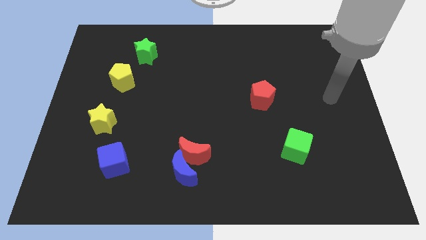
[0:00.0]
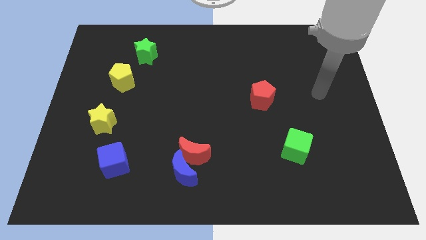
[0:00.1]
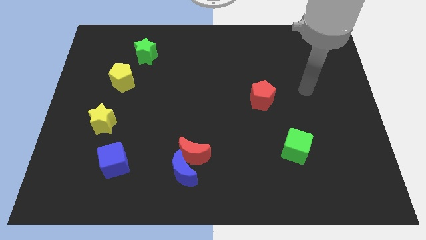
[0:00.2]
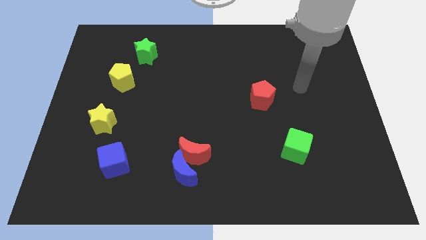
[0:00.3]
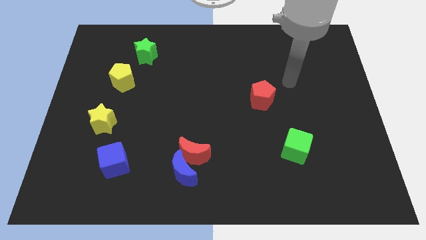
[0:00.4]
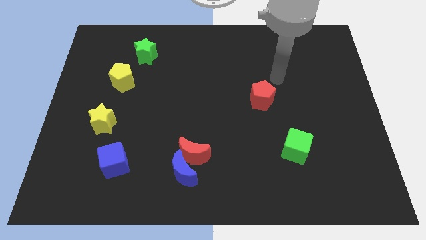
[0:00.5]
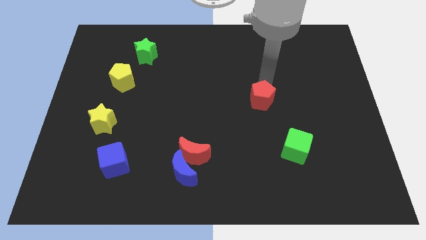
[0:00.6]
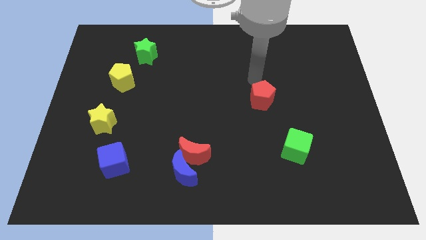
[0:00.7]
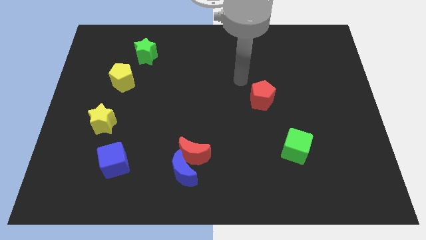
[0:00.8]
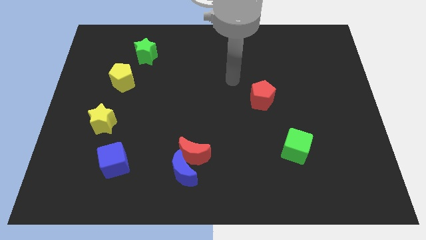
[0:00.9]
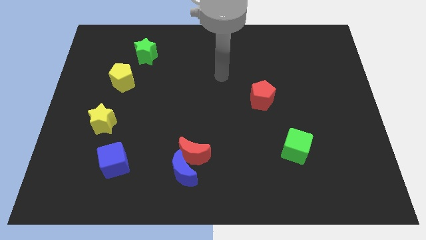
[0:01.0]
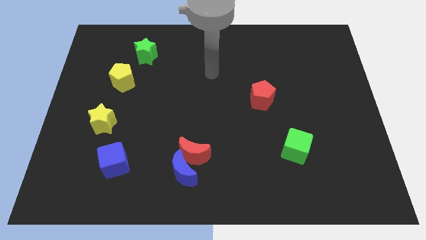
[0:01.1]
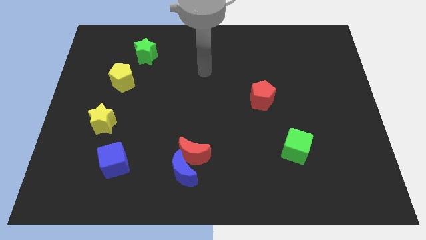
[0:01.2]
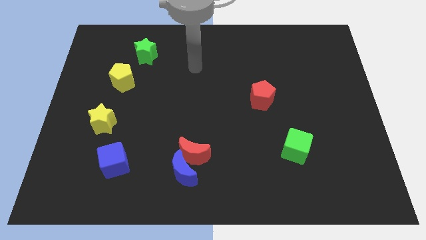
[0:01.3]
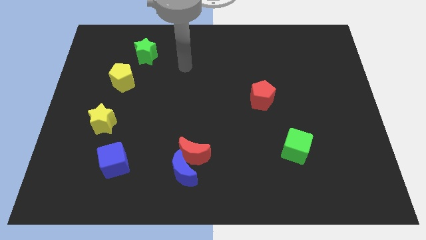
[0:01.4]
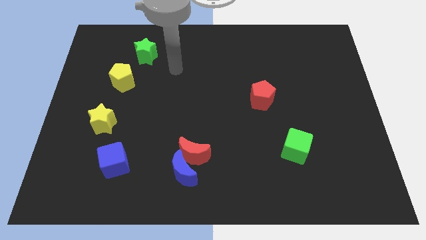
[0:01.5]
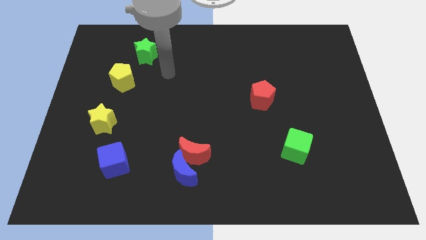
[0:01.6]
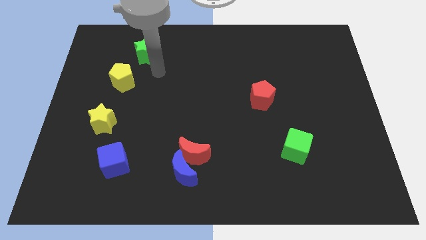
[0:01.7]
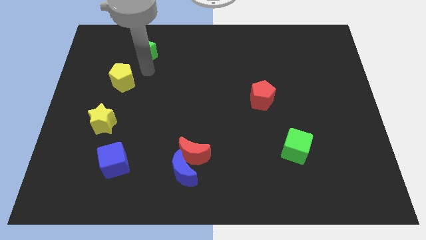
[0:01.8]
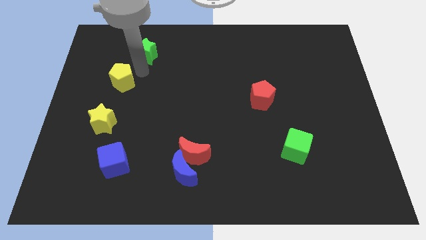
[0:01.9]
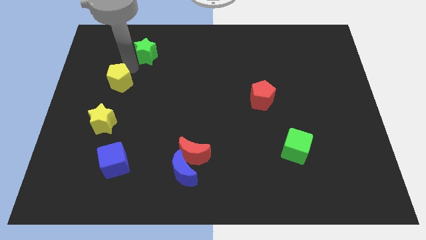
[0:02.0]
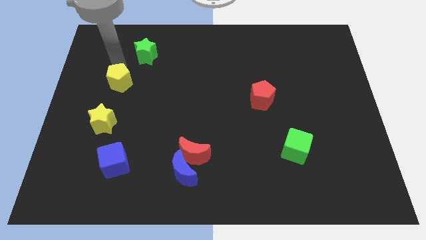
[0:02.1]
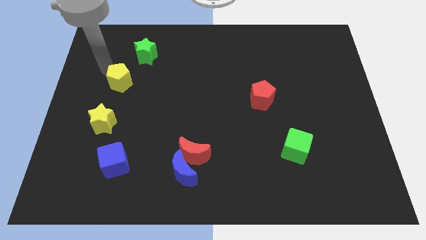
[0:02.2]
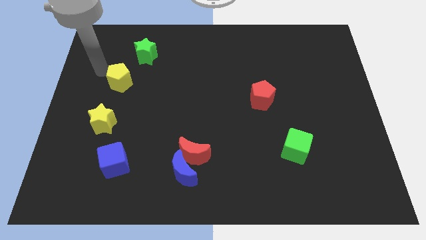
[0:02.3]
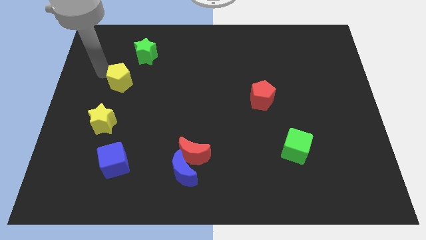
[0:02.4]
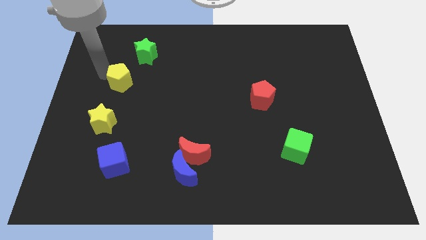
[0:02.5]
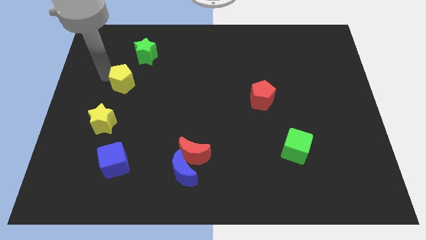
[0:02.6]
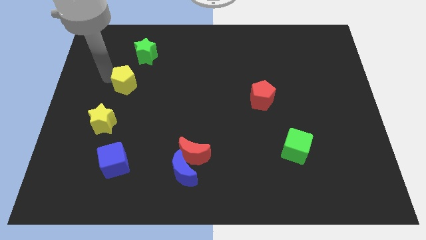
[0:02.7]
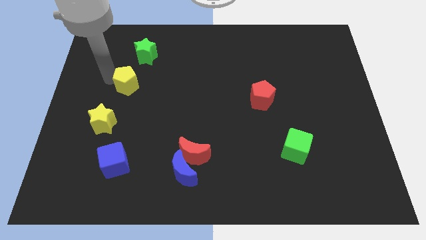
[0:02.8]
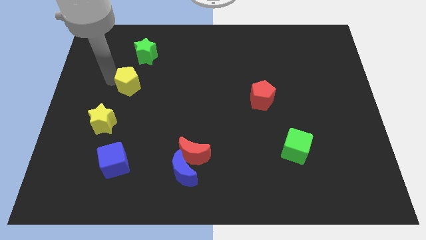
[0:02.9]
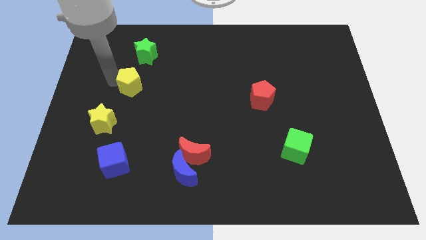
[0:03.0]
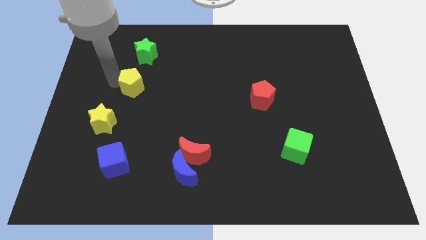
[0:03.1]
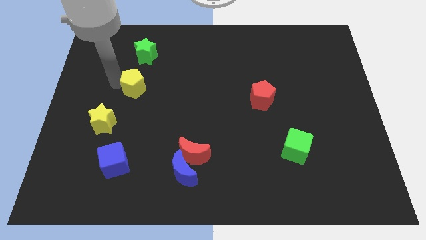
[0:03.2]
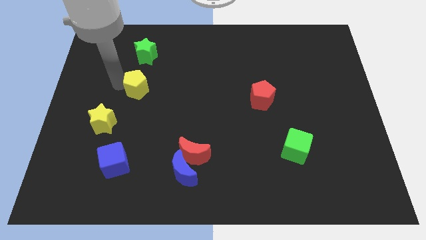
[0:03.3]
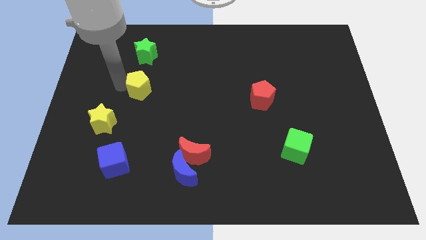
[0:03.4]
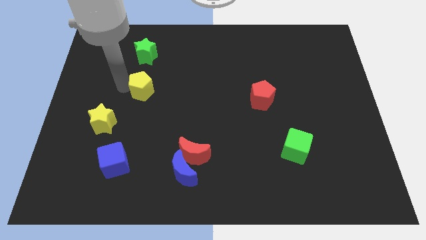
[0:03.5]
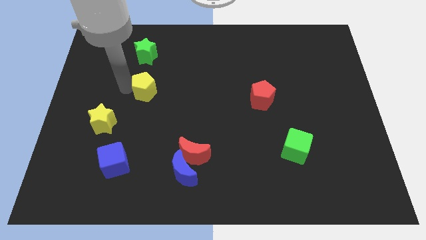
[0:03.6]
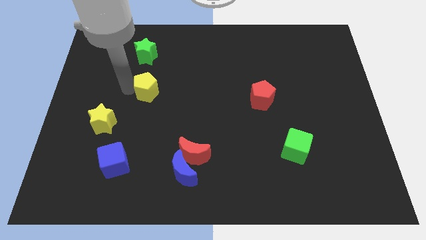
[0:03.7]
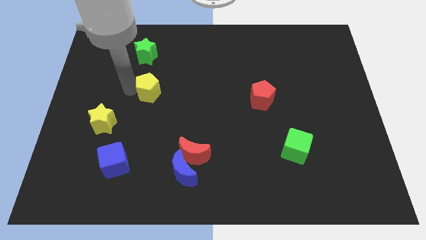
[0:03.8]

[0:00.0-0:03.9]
move the yellow pentagon downwards and to the right a little bit

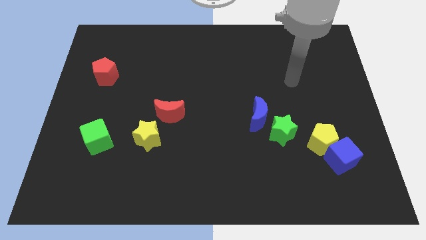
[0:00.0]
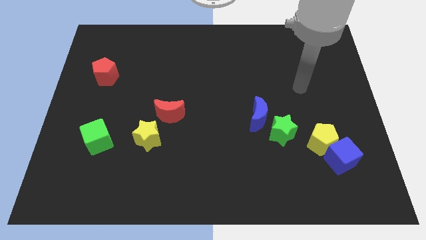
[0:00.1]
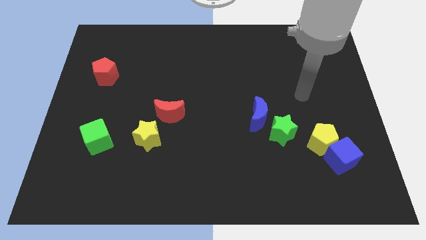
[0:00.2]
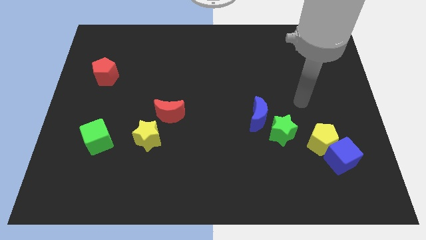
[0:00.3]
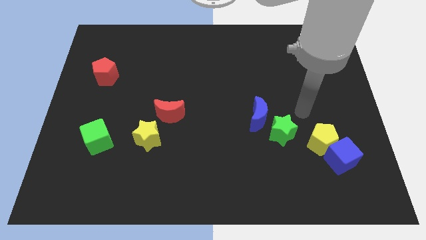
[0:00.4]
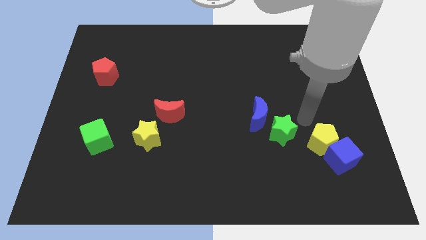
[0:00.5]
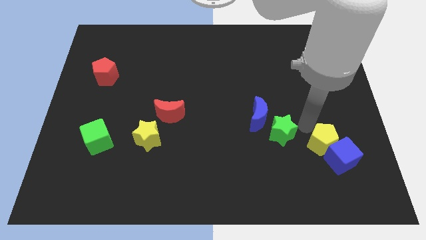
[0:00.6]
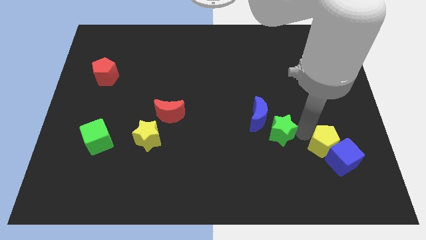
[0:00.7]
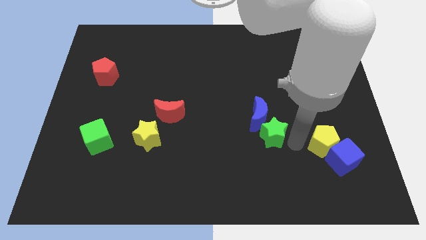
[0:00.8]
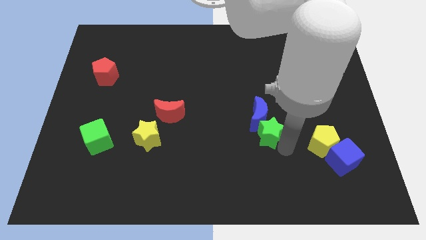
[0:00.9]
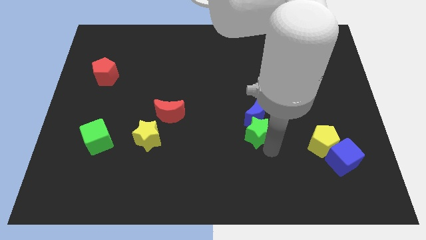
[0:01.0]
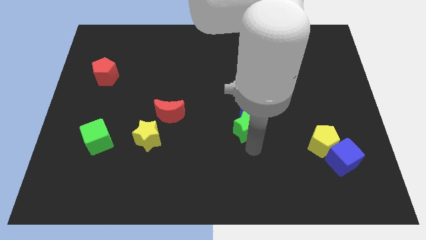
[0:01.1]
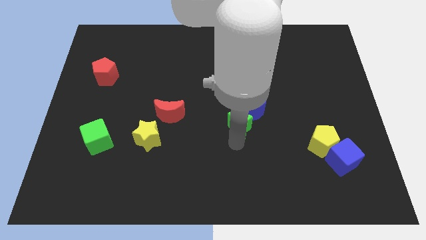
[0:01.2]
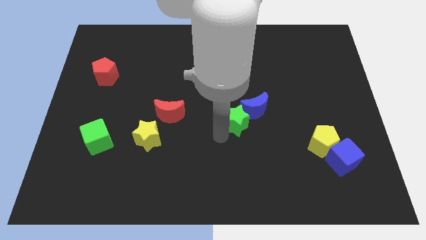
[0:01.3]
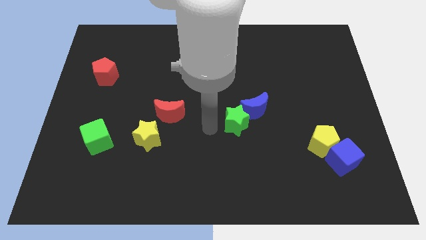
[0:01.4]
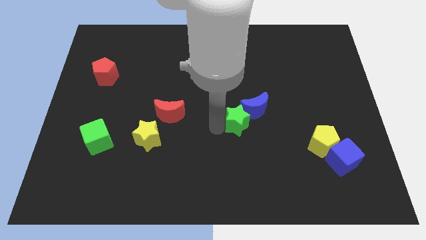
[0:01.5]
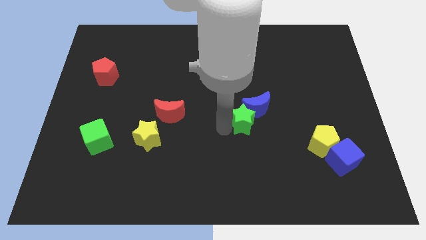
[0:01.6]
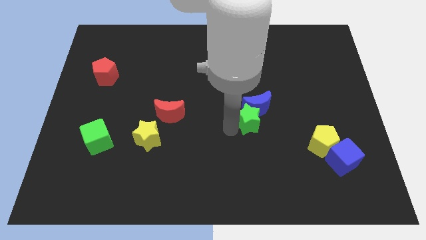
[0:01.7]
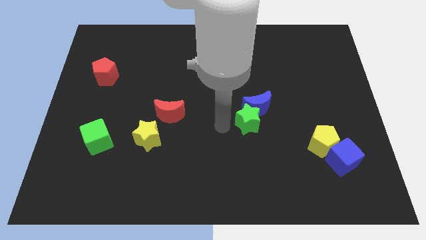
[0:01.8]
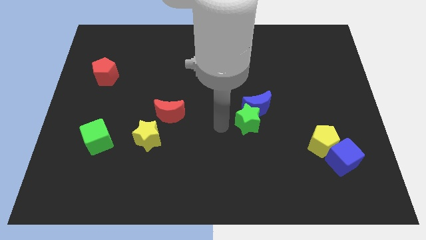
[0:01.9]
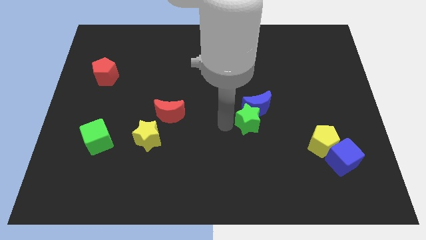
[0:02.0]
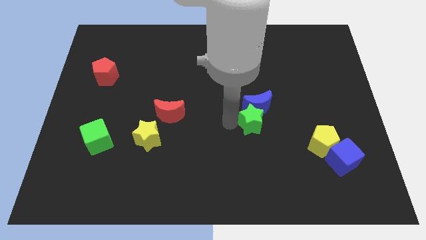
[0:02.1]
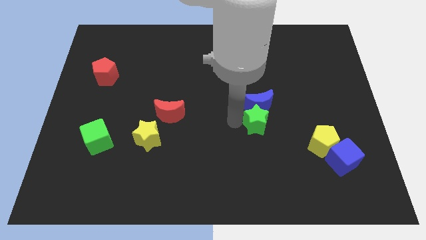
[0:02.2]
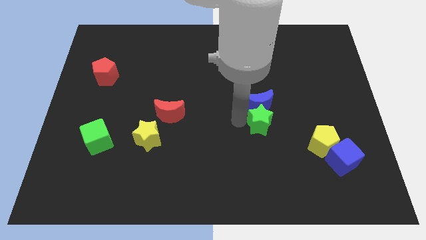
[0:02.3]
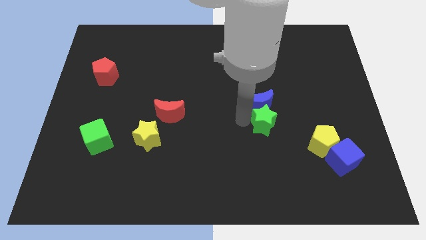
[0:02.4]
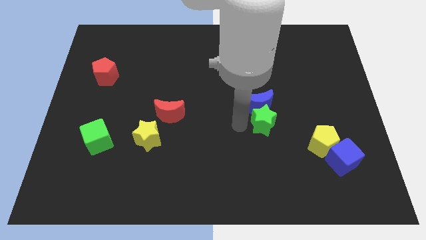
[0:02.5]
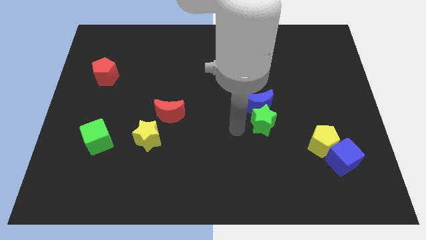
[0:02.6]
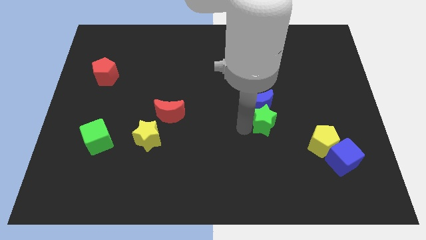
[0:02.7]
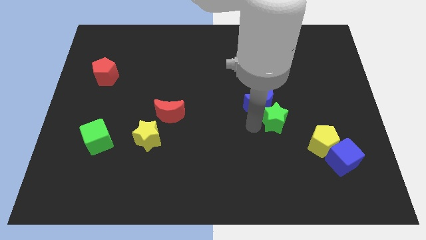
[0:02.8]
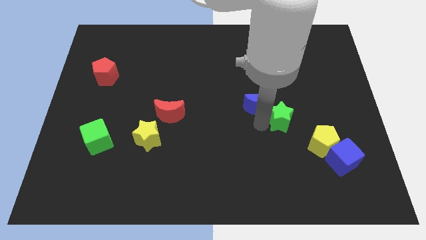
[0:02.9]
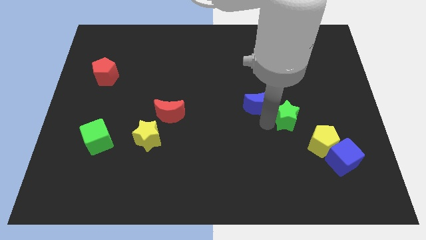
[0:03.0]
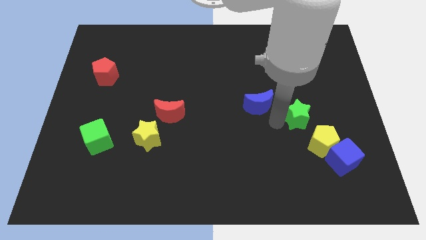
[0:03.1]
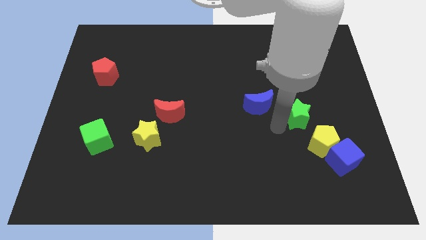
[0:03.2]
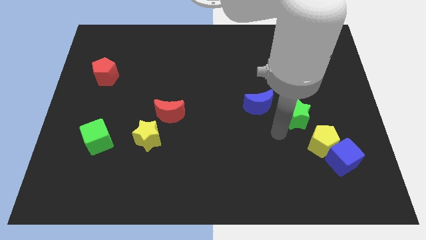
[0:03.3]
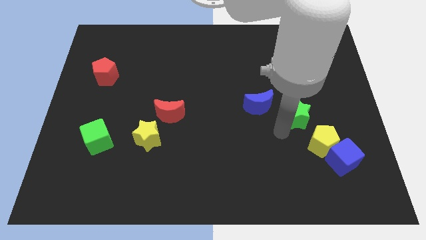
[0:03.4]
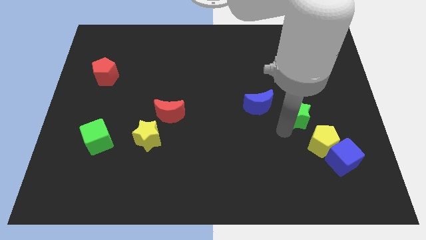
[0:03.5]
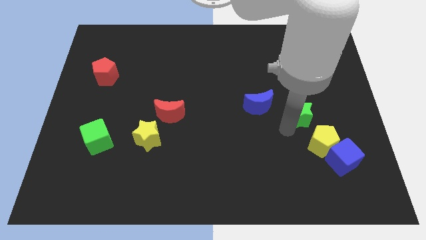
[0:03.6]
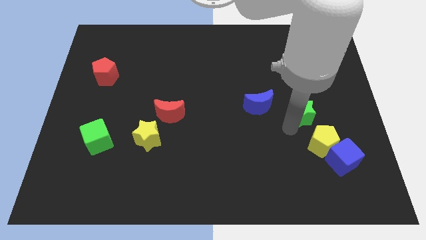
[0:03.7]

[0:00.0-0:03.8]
push the green star up and right diagonally a little

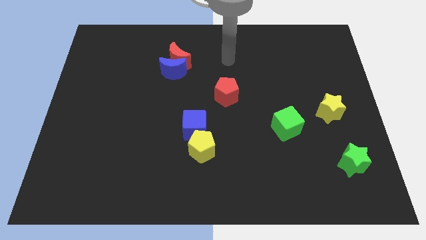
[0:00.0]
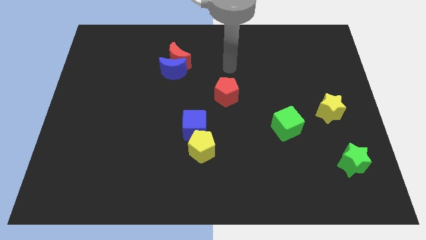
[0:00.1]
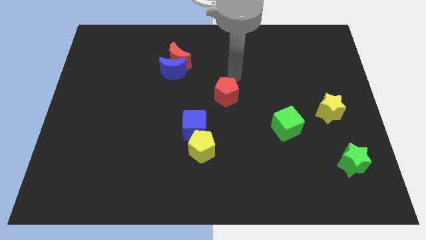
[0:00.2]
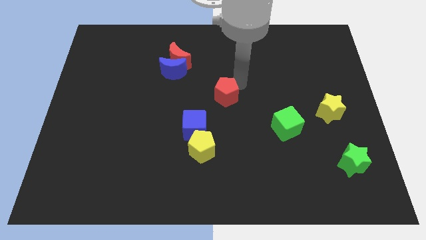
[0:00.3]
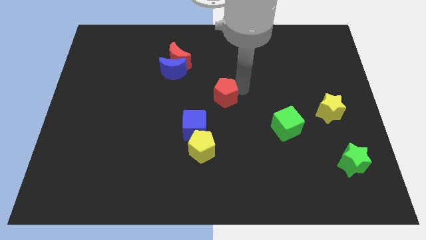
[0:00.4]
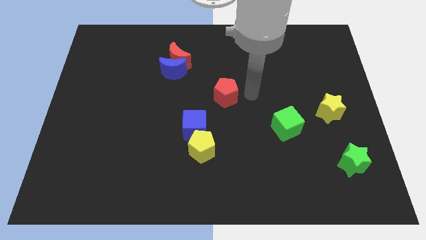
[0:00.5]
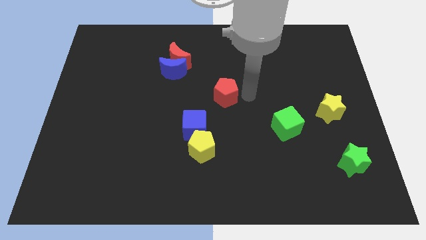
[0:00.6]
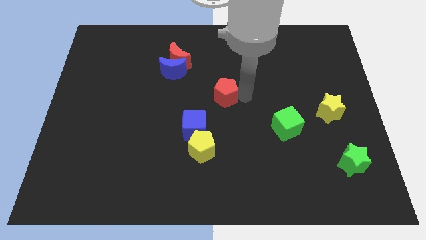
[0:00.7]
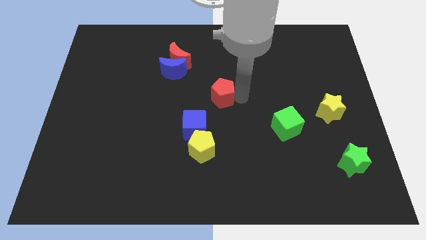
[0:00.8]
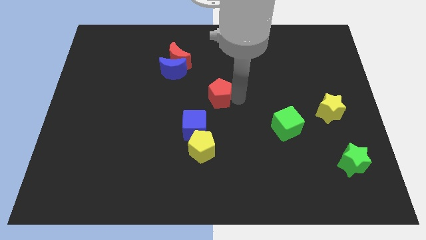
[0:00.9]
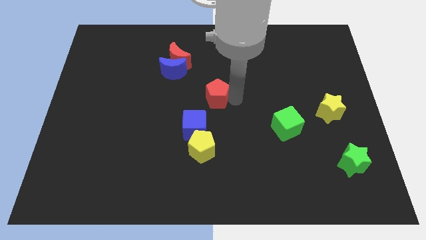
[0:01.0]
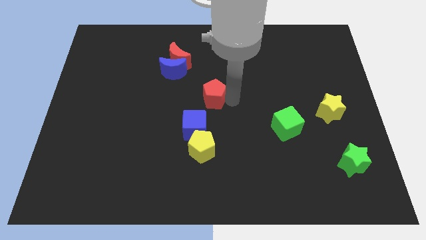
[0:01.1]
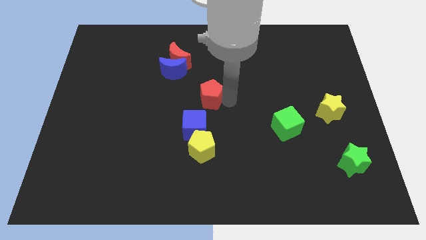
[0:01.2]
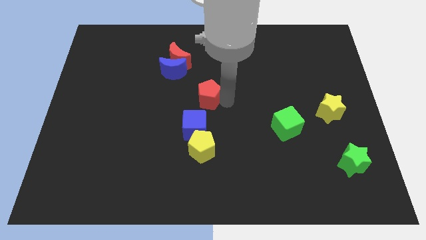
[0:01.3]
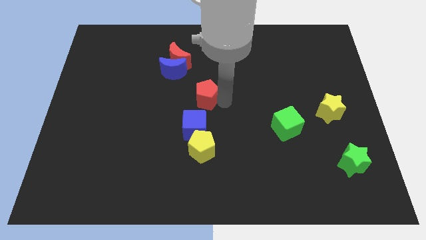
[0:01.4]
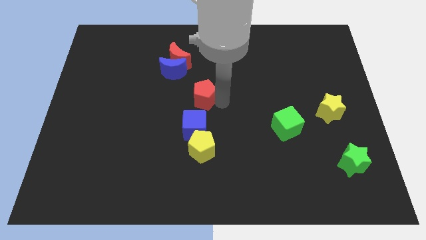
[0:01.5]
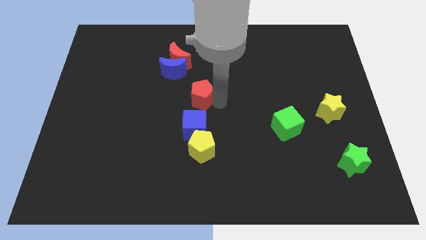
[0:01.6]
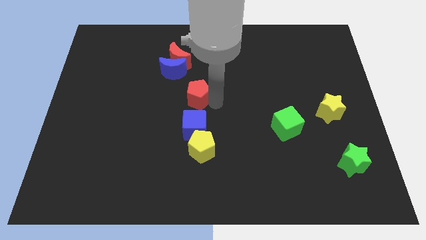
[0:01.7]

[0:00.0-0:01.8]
slightly move the red pentagon to the left
